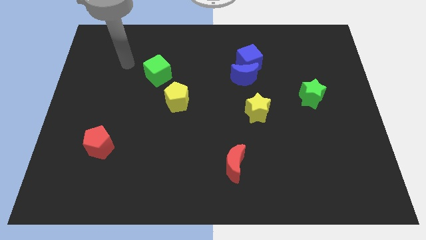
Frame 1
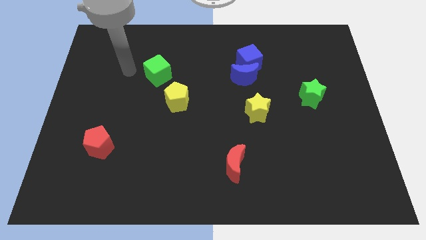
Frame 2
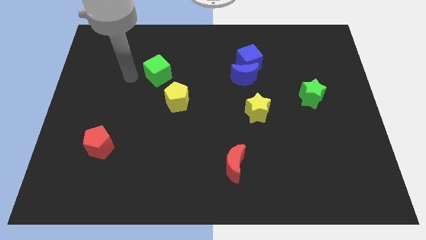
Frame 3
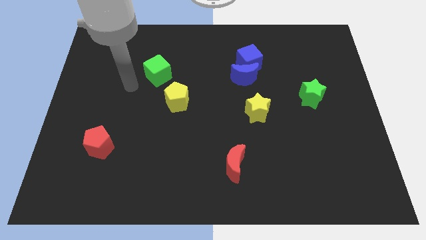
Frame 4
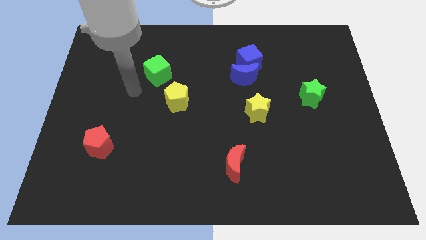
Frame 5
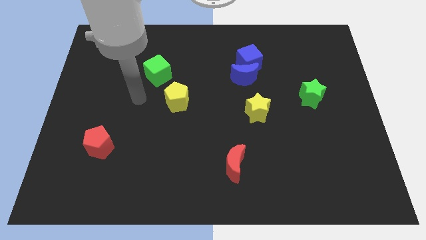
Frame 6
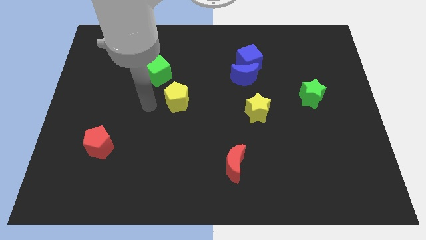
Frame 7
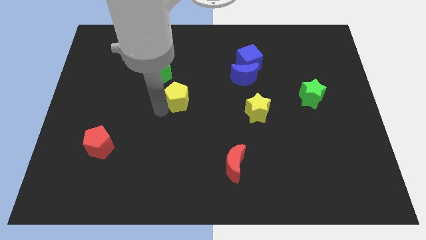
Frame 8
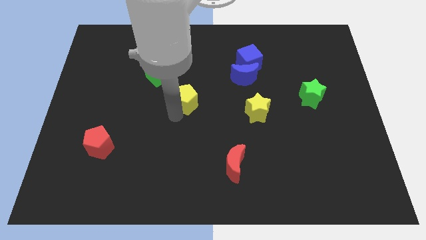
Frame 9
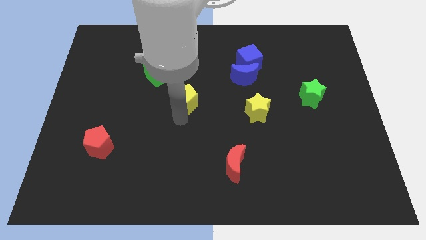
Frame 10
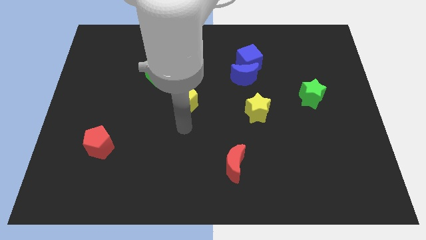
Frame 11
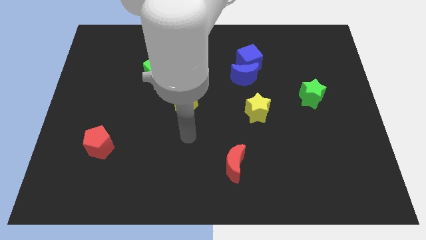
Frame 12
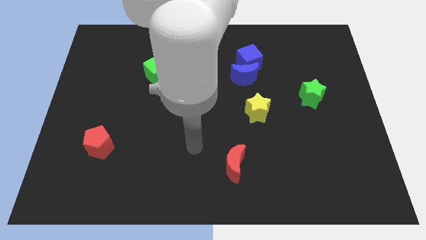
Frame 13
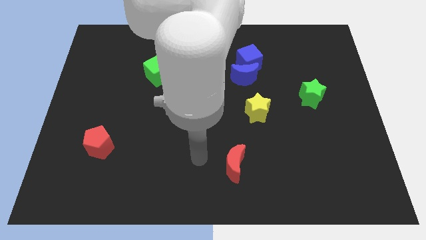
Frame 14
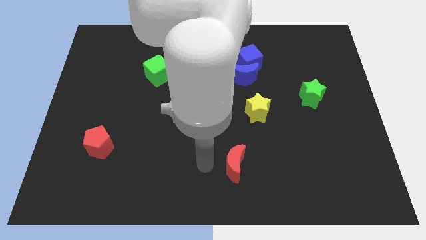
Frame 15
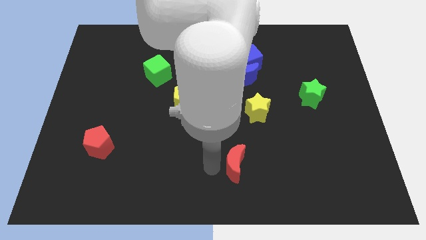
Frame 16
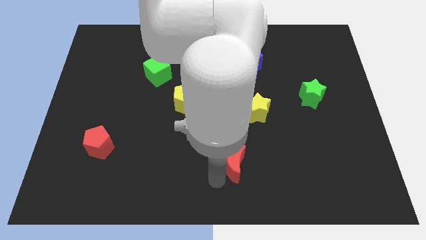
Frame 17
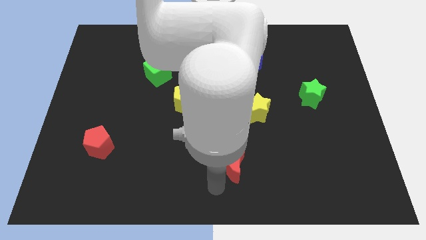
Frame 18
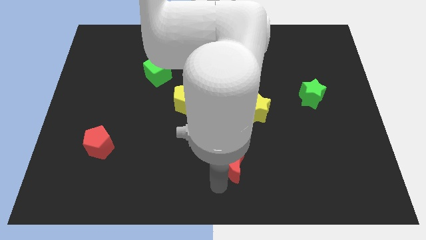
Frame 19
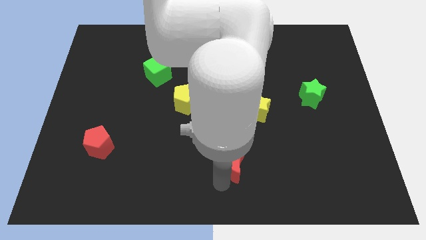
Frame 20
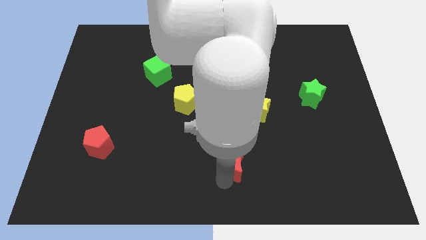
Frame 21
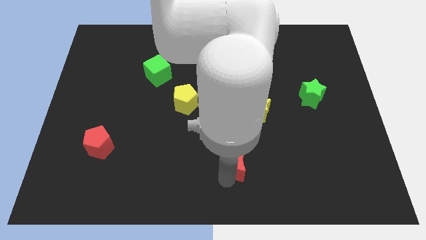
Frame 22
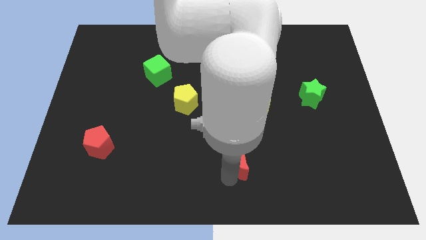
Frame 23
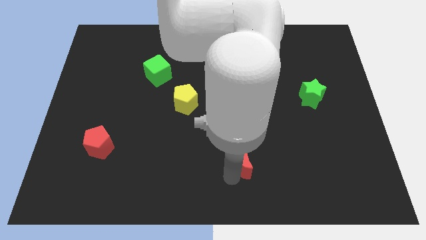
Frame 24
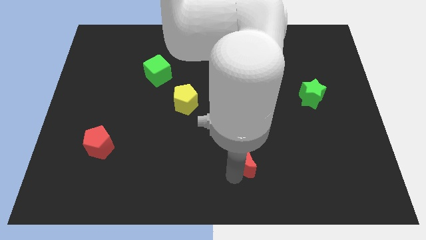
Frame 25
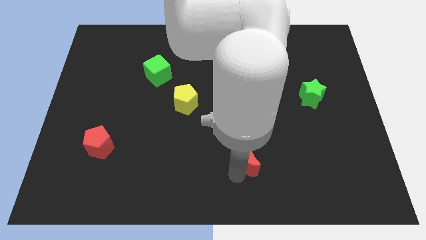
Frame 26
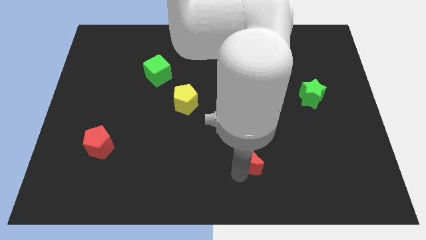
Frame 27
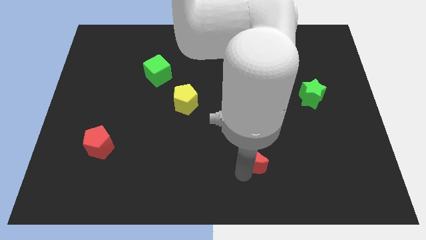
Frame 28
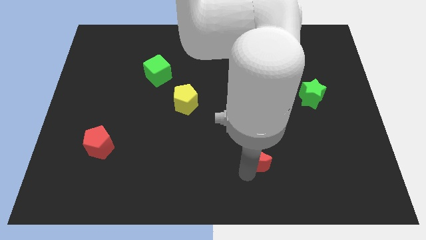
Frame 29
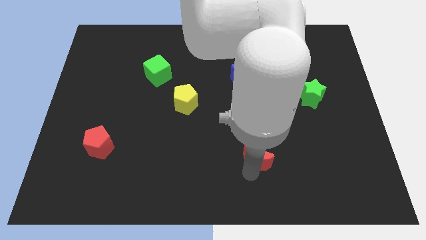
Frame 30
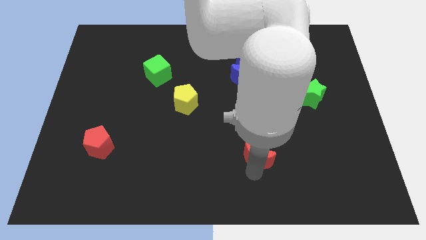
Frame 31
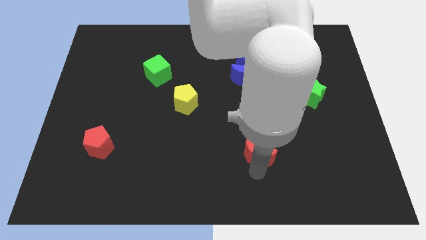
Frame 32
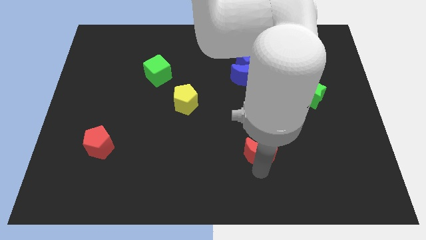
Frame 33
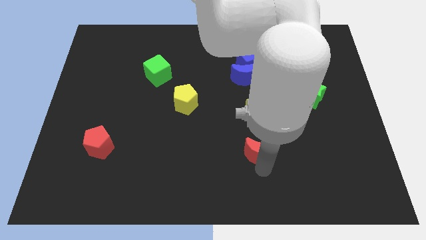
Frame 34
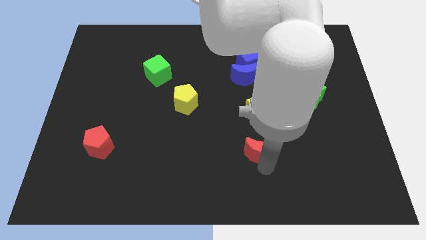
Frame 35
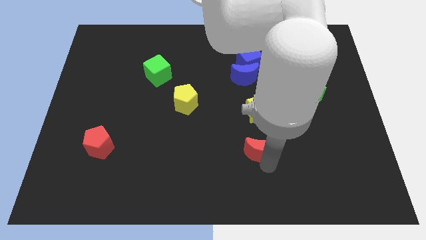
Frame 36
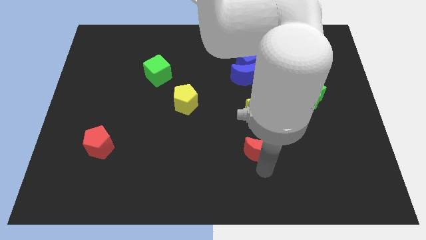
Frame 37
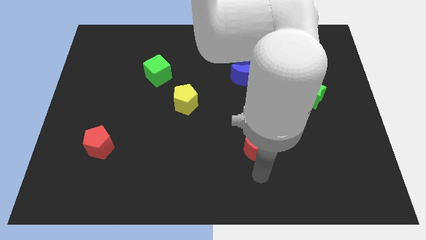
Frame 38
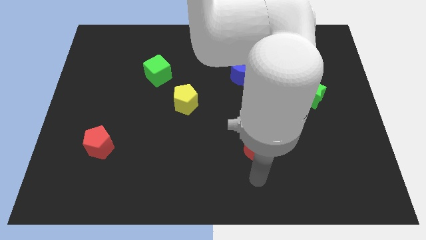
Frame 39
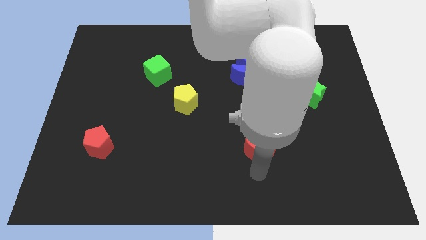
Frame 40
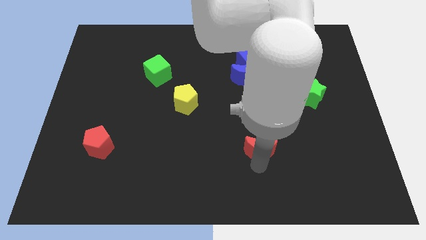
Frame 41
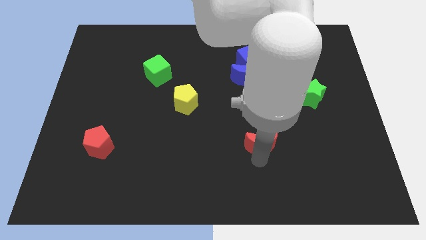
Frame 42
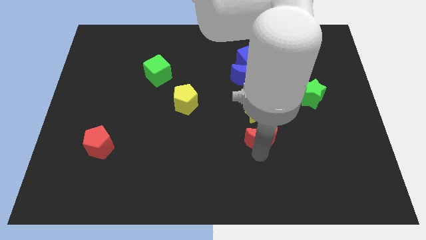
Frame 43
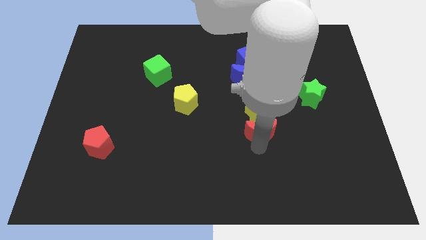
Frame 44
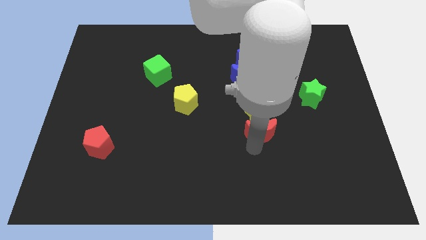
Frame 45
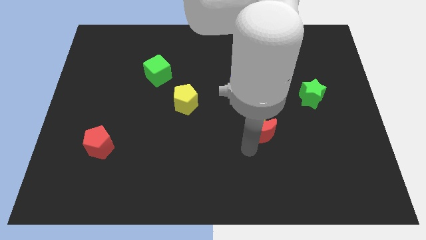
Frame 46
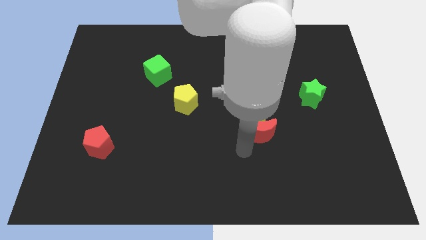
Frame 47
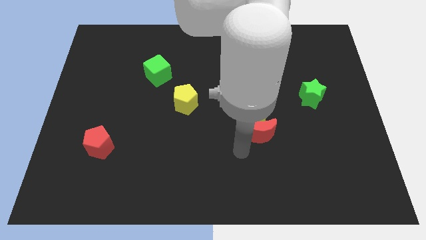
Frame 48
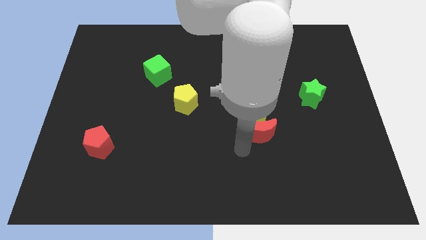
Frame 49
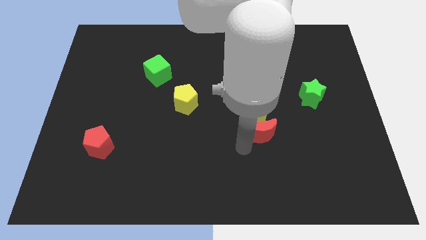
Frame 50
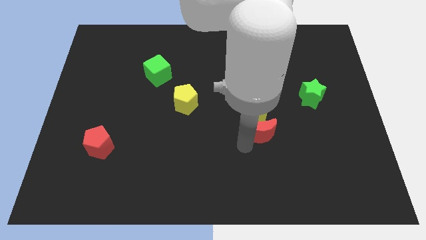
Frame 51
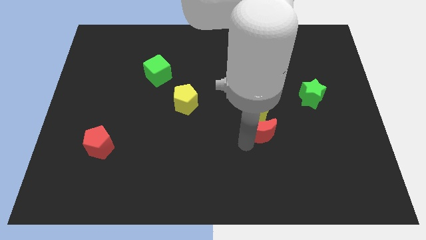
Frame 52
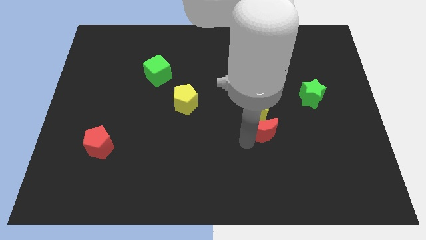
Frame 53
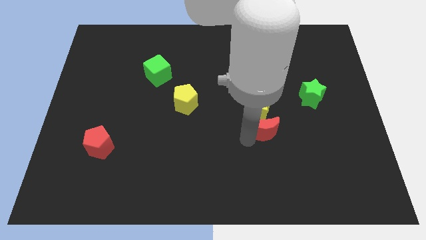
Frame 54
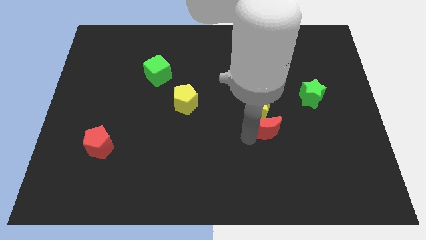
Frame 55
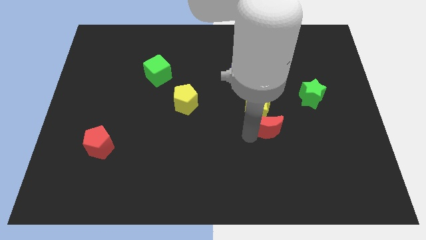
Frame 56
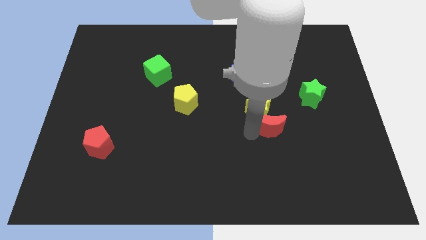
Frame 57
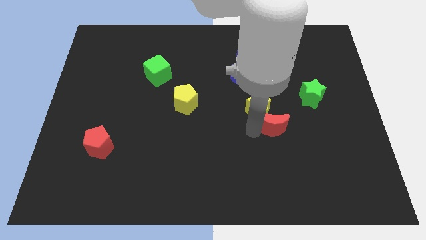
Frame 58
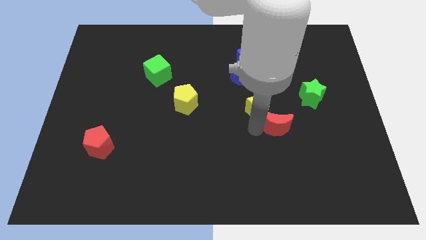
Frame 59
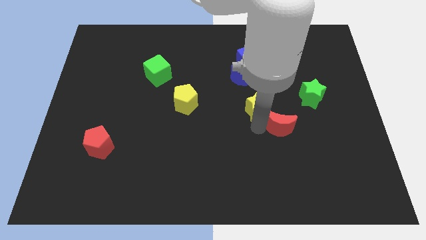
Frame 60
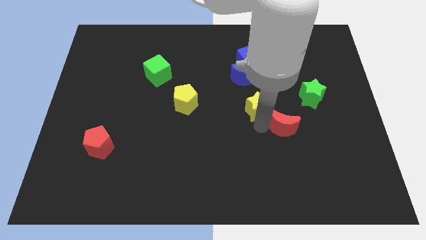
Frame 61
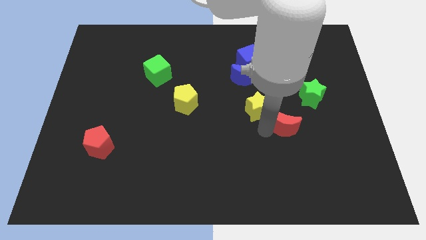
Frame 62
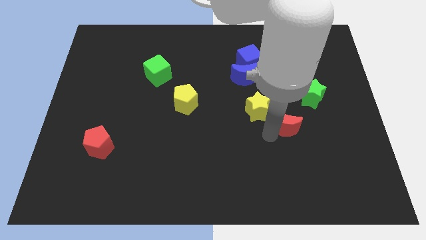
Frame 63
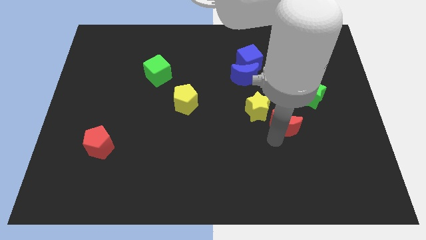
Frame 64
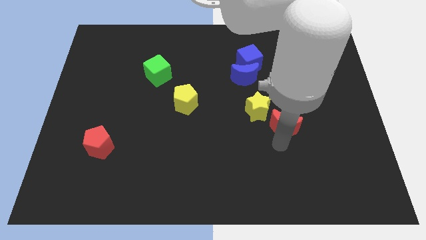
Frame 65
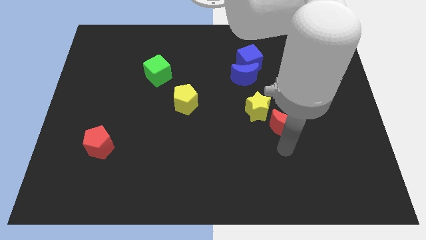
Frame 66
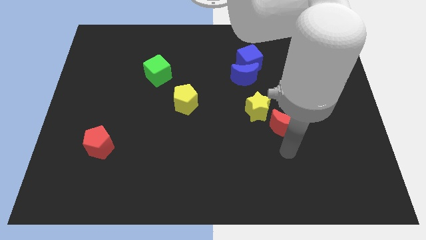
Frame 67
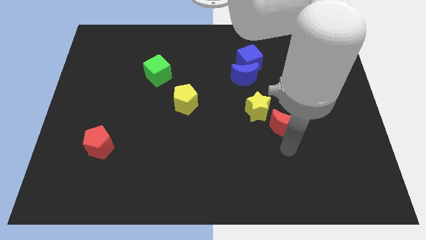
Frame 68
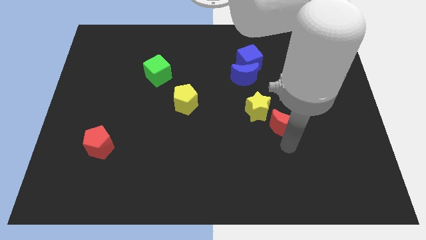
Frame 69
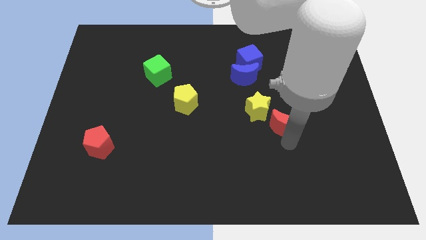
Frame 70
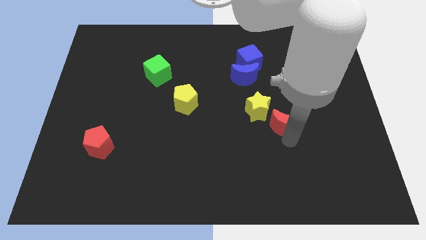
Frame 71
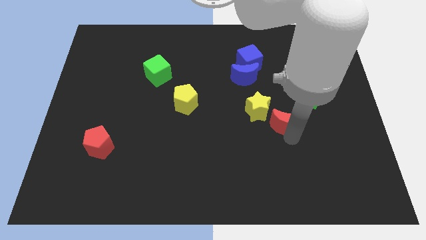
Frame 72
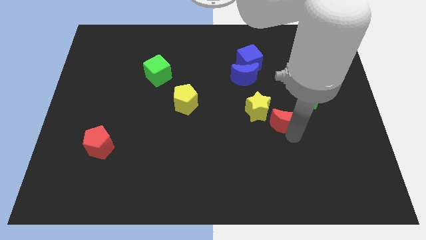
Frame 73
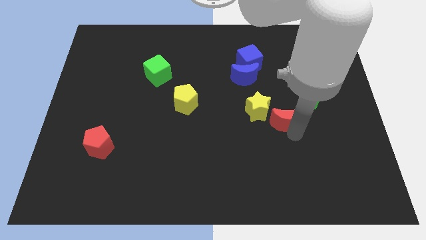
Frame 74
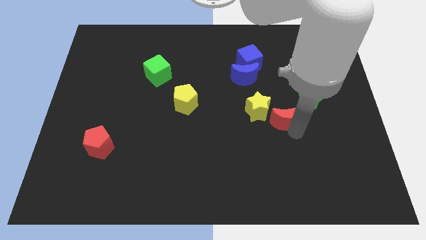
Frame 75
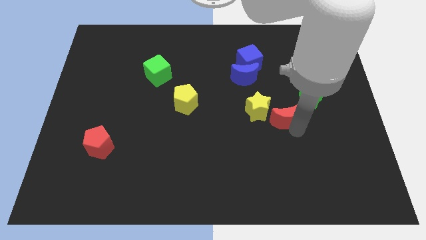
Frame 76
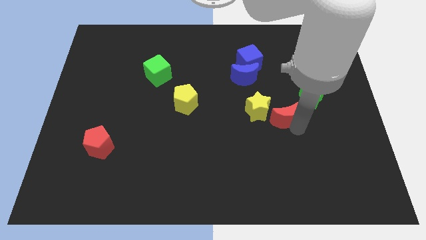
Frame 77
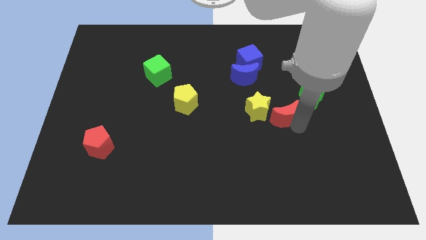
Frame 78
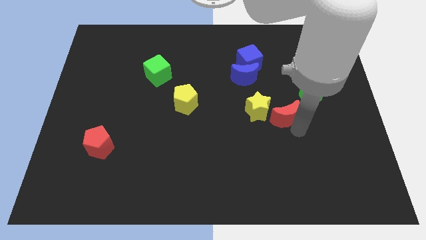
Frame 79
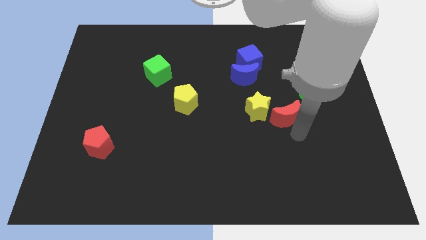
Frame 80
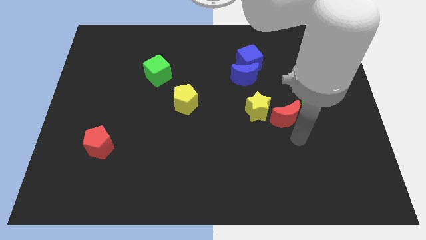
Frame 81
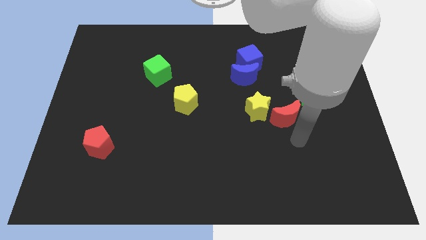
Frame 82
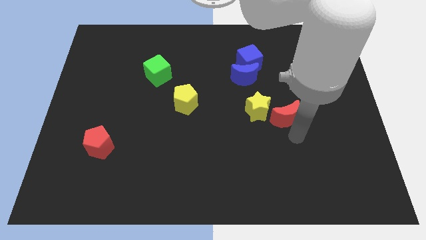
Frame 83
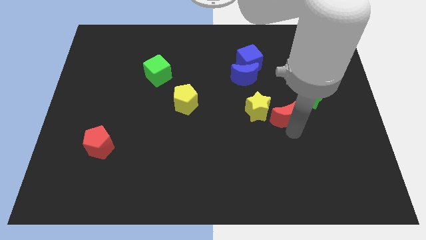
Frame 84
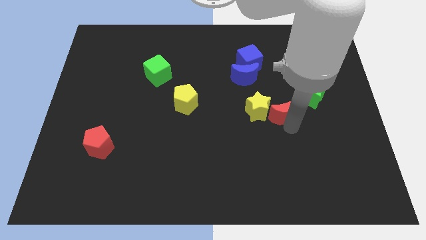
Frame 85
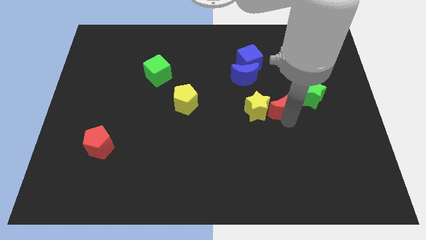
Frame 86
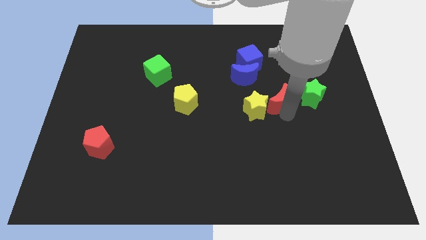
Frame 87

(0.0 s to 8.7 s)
move the red moon to the bottom right side of the blue moon
